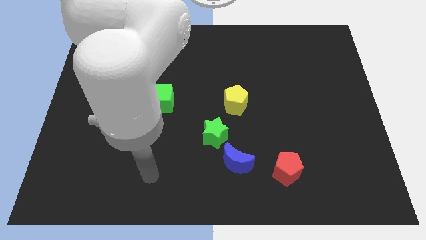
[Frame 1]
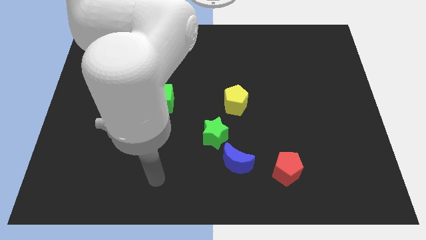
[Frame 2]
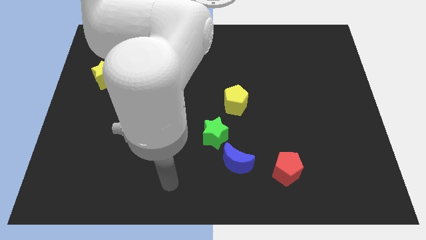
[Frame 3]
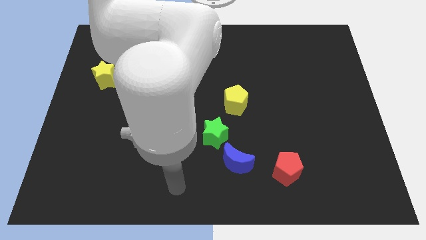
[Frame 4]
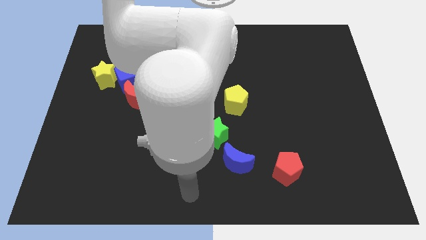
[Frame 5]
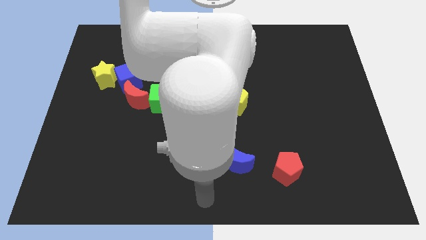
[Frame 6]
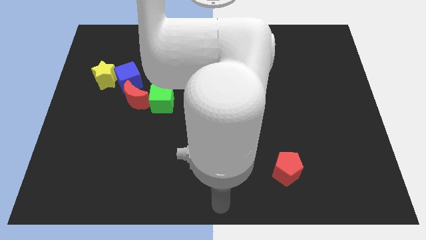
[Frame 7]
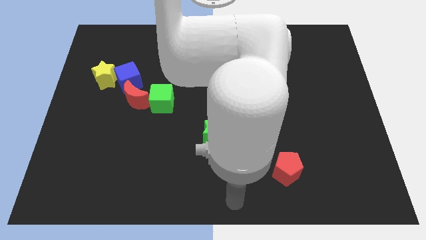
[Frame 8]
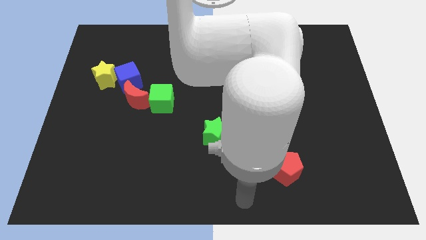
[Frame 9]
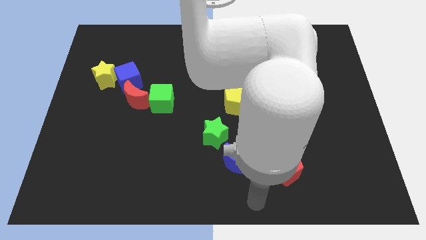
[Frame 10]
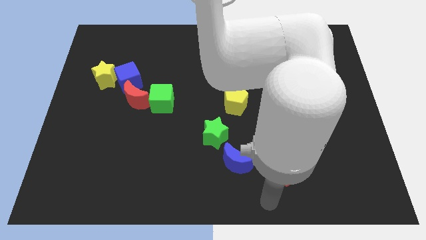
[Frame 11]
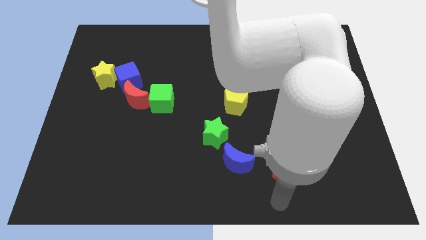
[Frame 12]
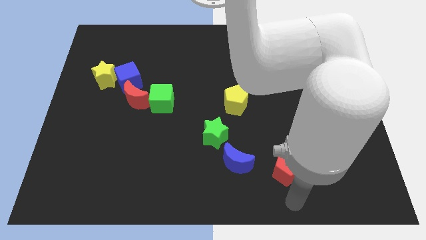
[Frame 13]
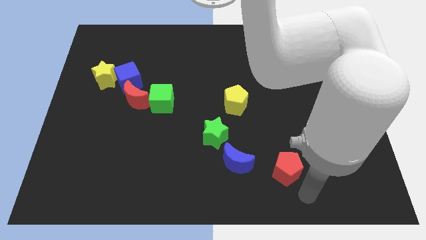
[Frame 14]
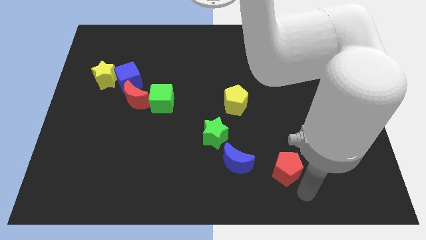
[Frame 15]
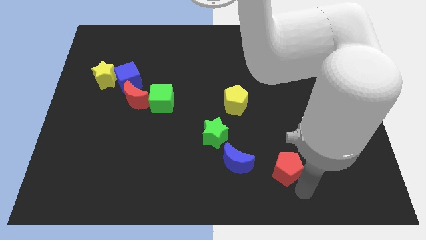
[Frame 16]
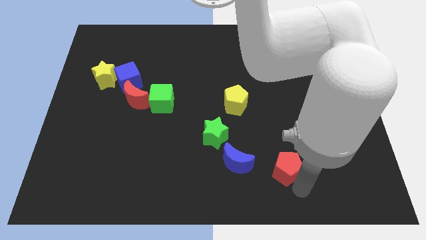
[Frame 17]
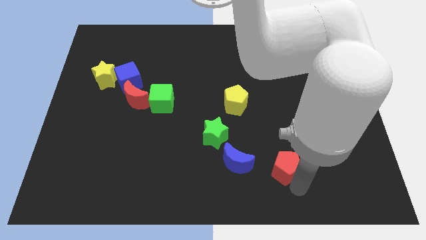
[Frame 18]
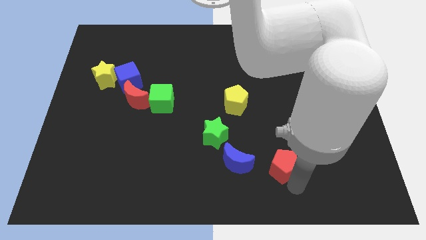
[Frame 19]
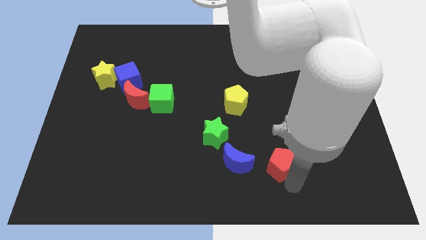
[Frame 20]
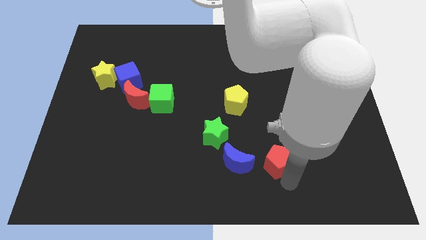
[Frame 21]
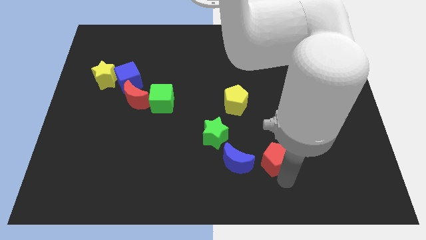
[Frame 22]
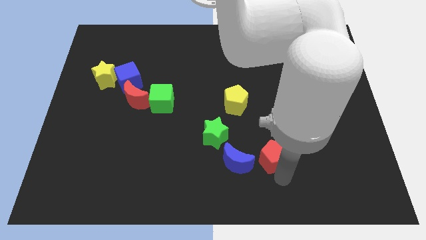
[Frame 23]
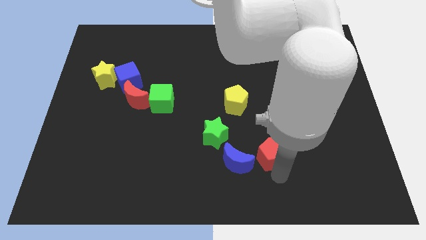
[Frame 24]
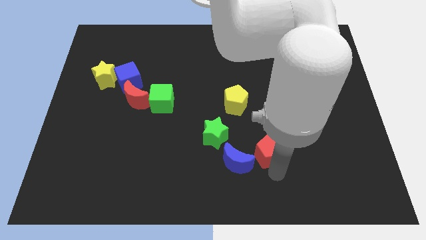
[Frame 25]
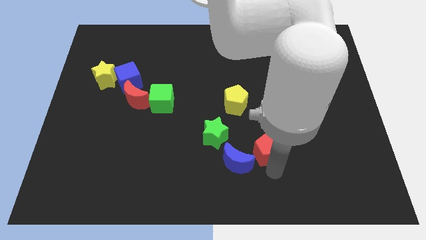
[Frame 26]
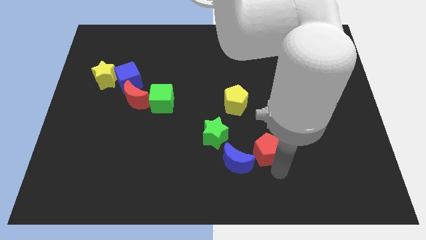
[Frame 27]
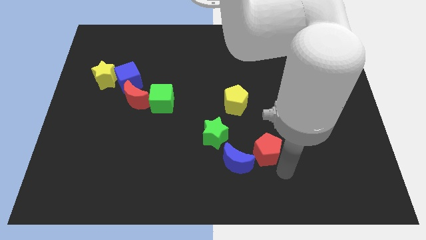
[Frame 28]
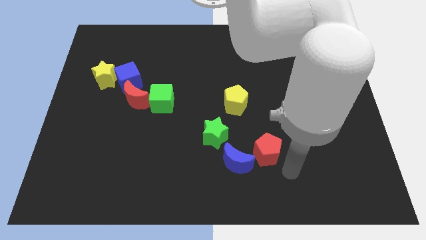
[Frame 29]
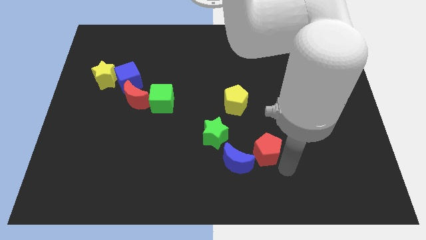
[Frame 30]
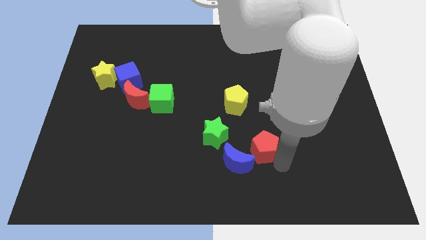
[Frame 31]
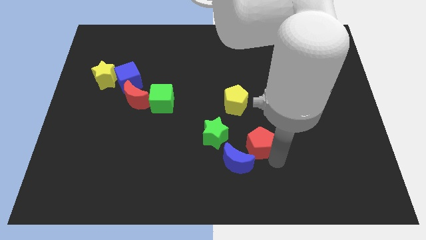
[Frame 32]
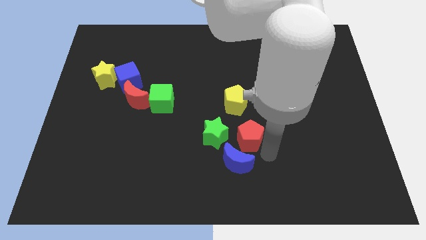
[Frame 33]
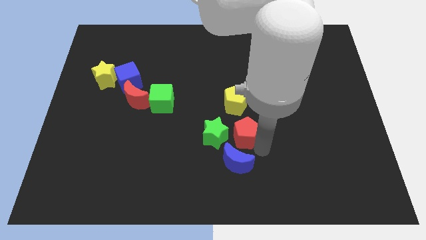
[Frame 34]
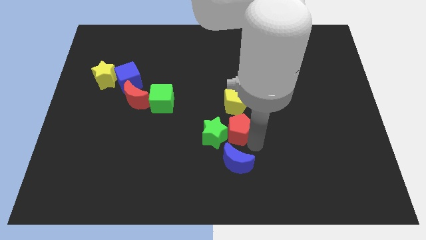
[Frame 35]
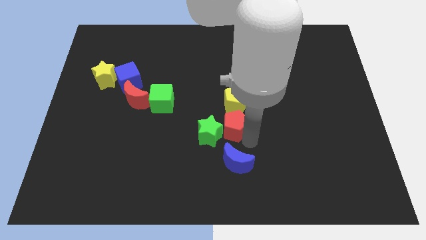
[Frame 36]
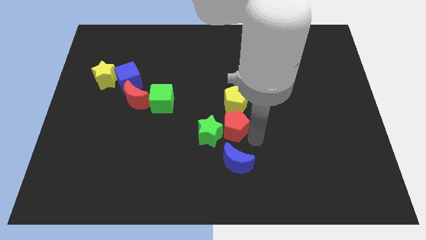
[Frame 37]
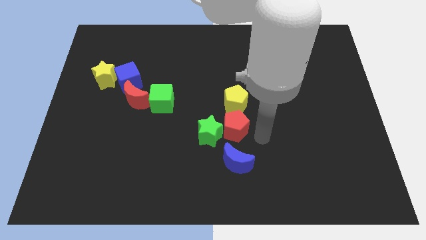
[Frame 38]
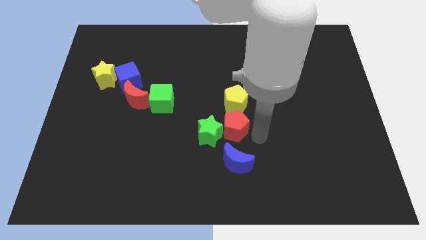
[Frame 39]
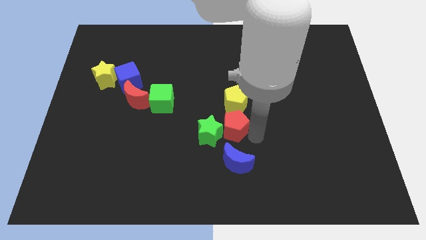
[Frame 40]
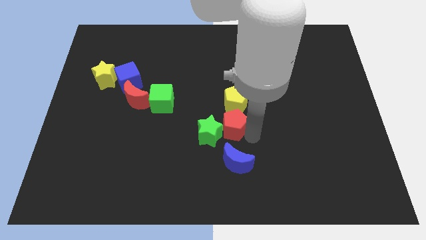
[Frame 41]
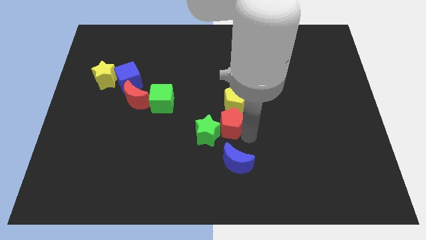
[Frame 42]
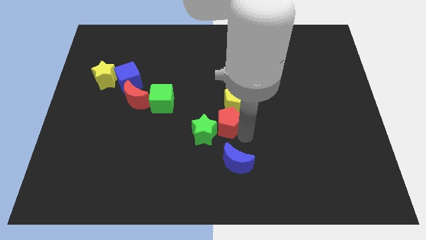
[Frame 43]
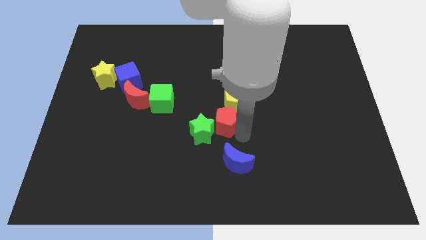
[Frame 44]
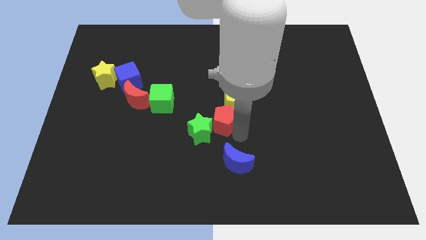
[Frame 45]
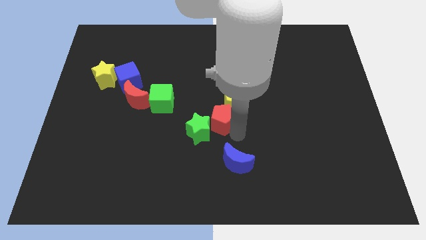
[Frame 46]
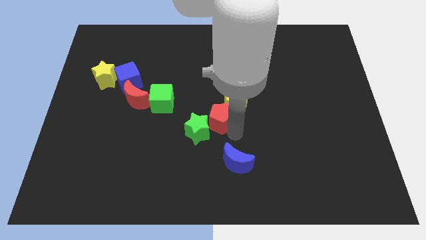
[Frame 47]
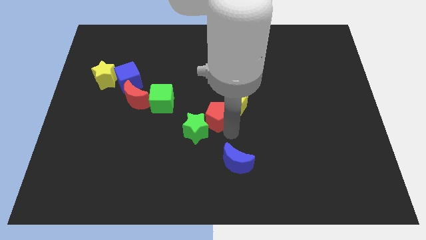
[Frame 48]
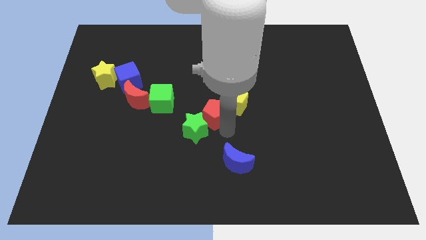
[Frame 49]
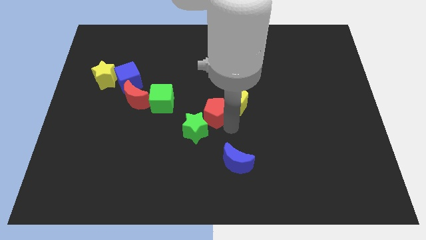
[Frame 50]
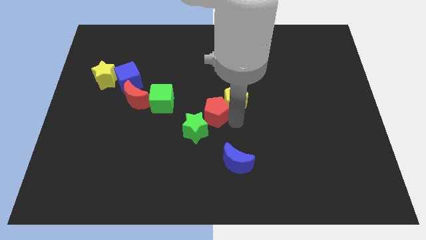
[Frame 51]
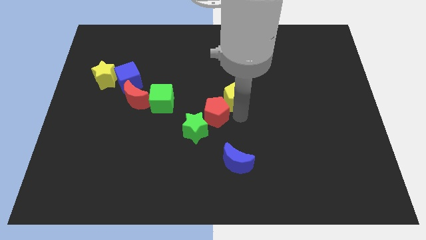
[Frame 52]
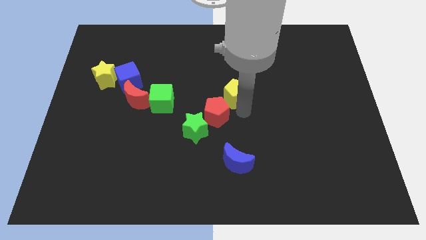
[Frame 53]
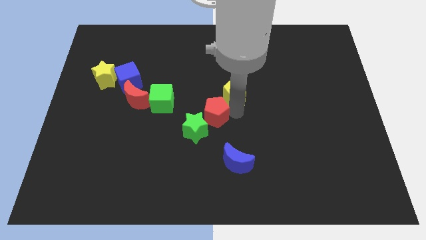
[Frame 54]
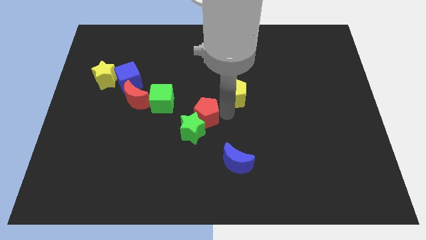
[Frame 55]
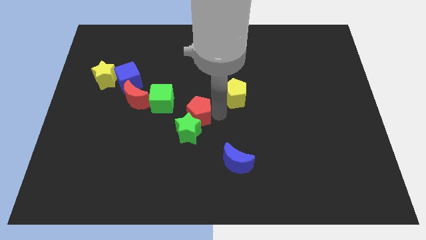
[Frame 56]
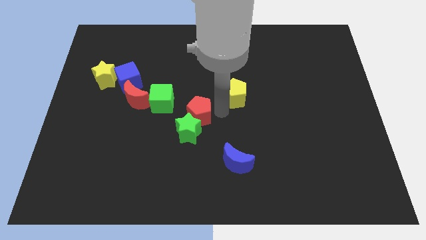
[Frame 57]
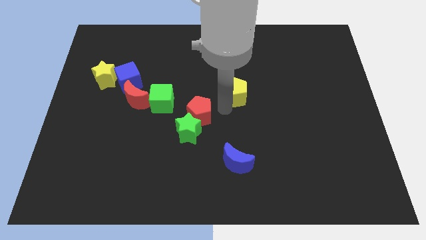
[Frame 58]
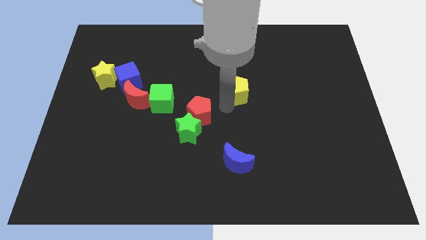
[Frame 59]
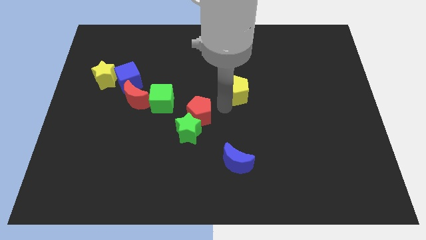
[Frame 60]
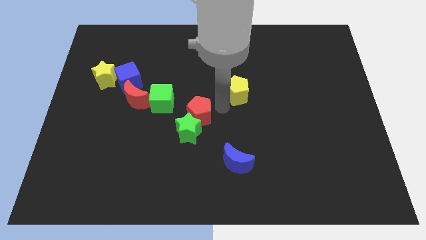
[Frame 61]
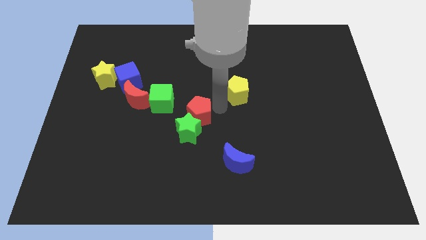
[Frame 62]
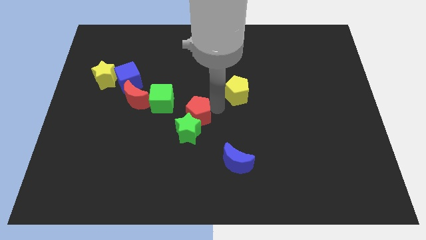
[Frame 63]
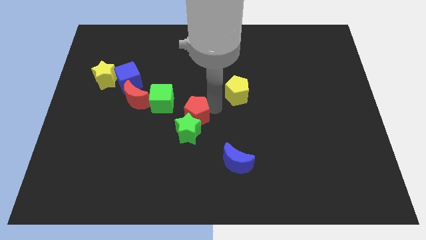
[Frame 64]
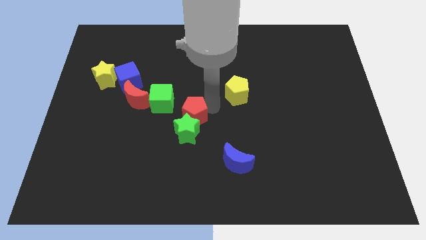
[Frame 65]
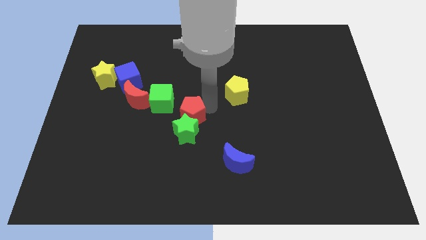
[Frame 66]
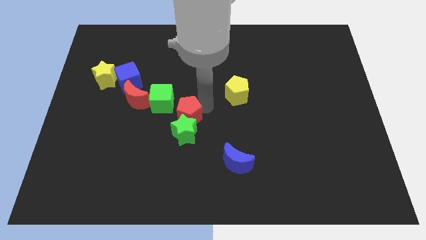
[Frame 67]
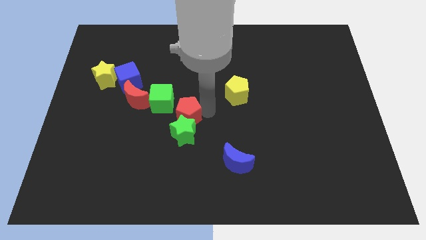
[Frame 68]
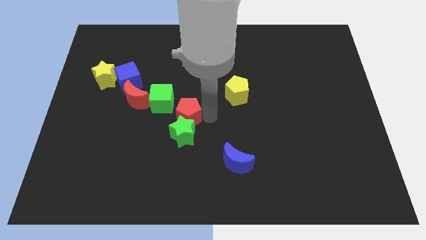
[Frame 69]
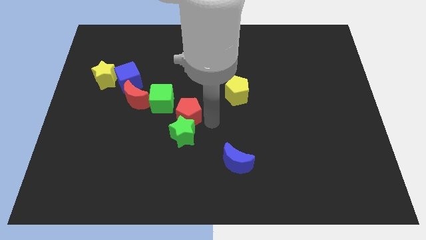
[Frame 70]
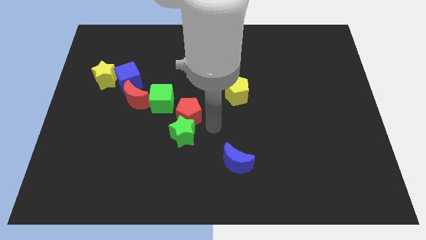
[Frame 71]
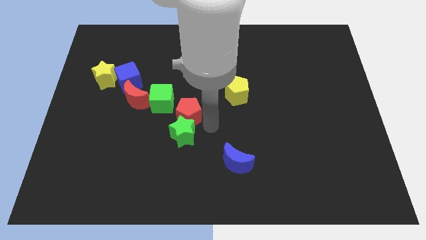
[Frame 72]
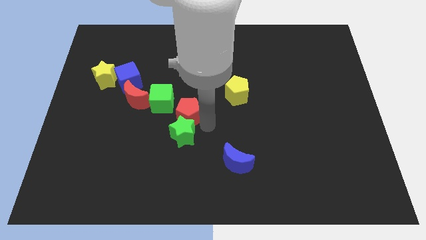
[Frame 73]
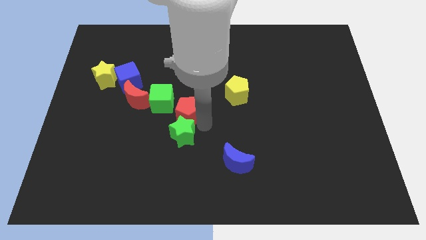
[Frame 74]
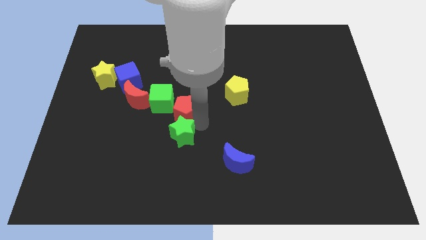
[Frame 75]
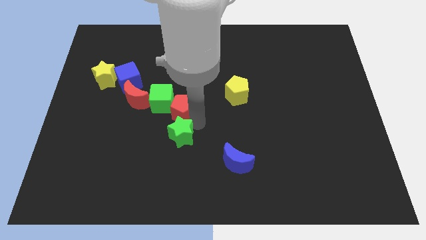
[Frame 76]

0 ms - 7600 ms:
move the red pentagon to the green cube
